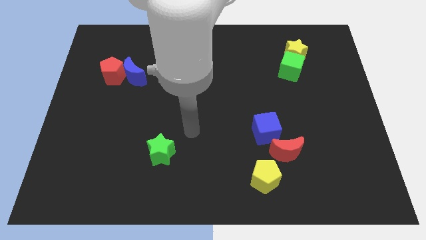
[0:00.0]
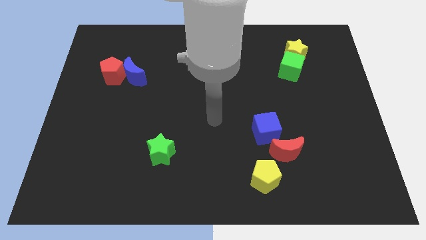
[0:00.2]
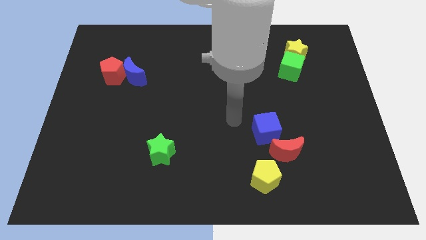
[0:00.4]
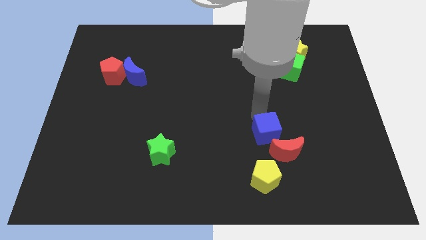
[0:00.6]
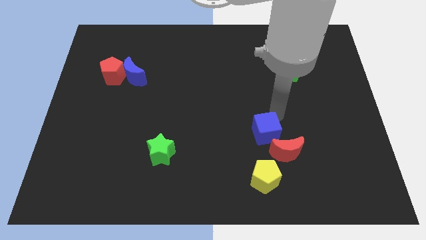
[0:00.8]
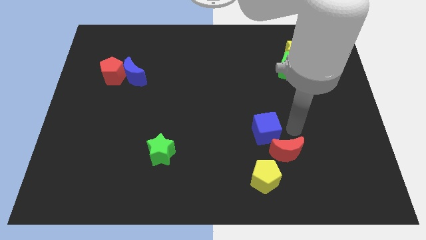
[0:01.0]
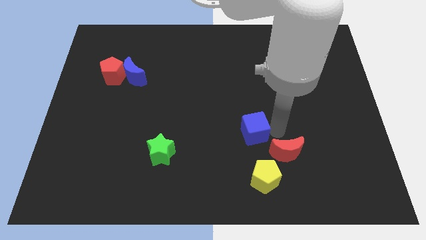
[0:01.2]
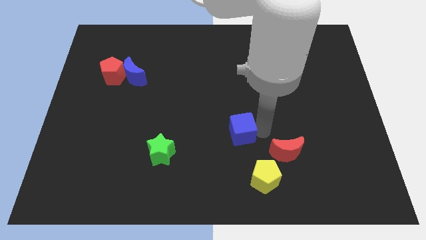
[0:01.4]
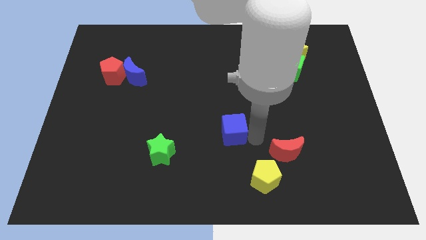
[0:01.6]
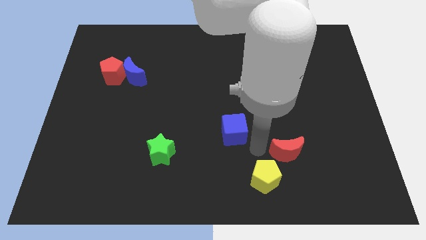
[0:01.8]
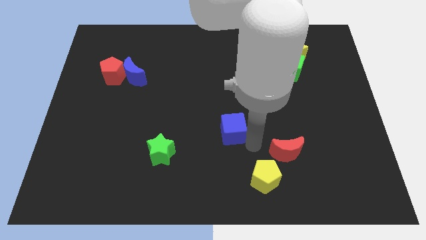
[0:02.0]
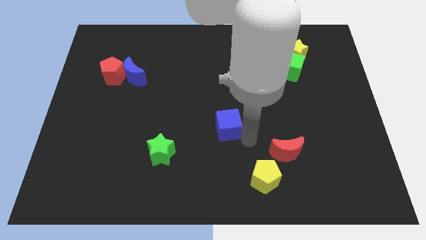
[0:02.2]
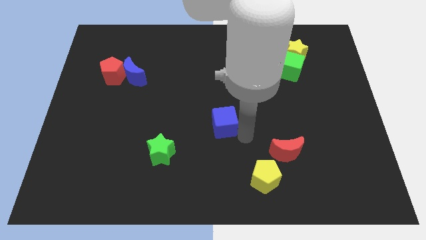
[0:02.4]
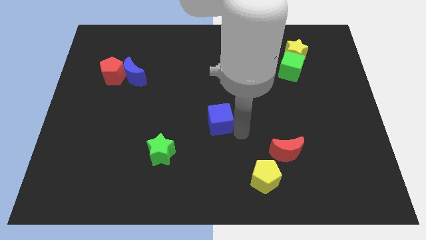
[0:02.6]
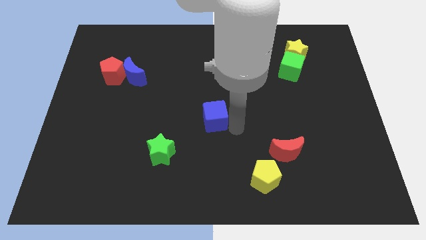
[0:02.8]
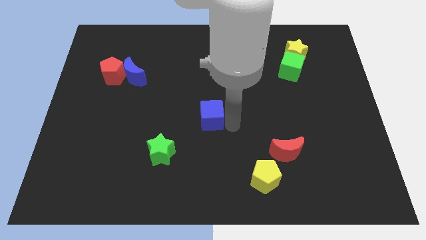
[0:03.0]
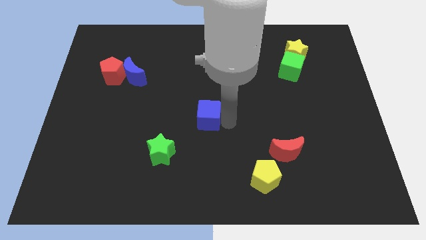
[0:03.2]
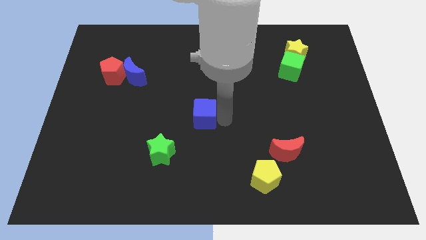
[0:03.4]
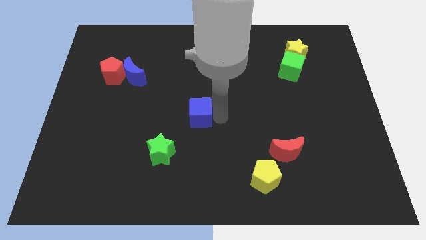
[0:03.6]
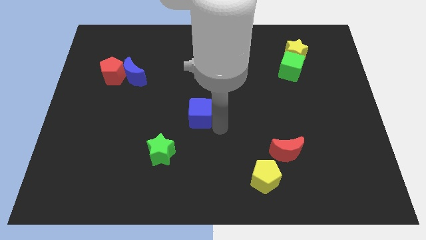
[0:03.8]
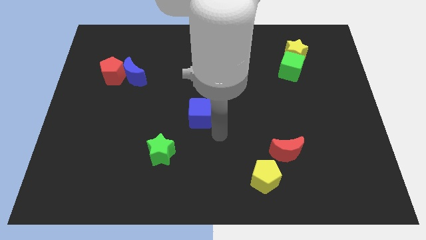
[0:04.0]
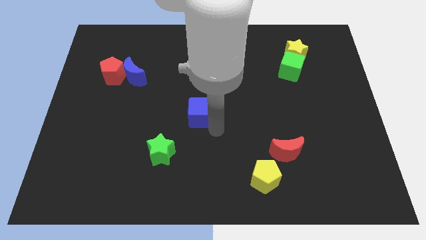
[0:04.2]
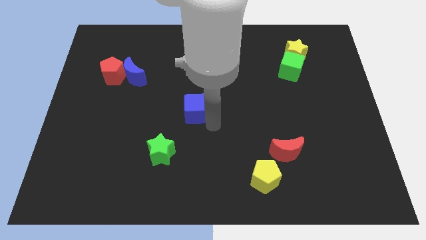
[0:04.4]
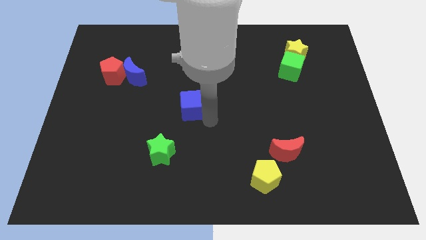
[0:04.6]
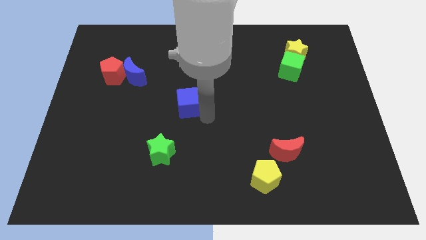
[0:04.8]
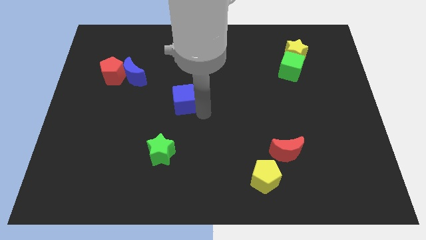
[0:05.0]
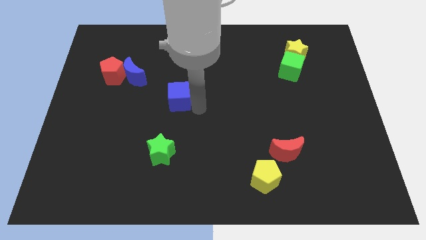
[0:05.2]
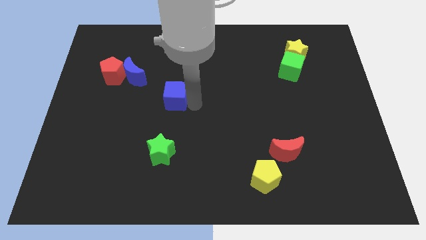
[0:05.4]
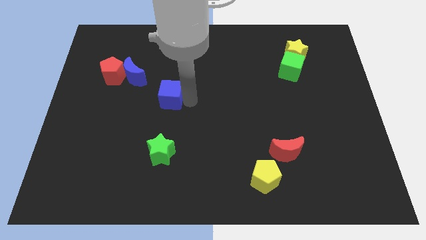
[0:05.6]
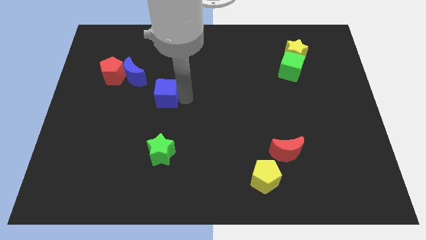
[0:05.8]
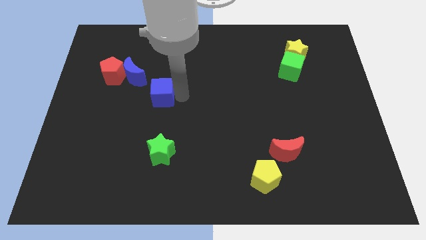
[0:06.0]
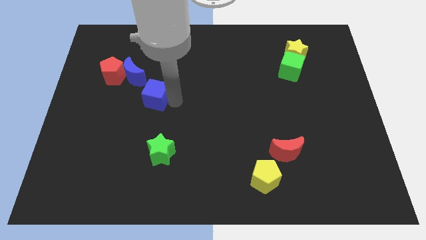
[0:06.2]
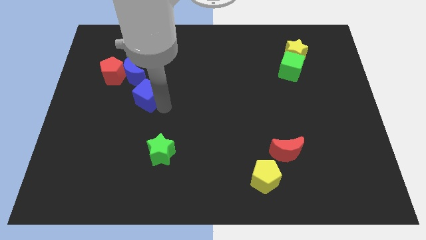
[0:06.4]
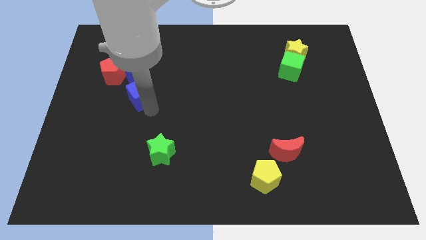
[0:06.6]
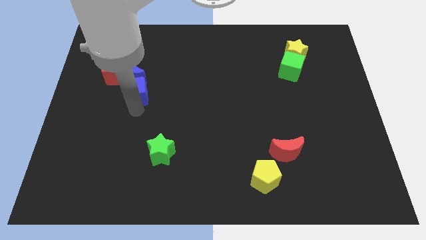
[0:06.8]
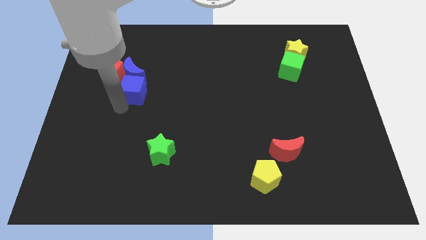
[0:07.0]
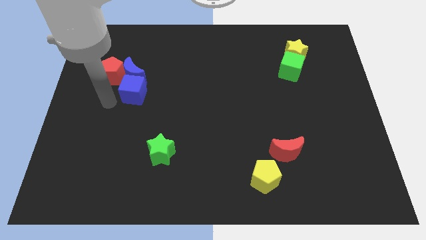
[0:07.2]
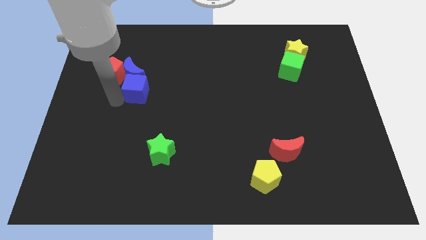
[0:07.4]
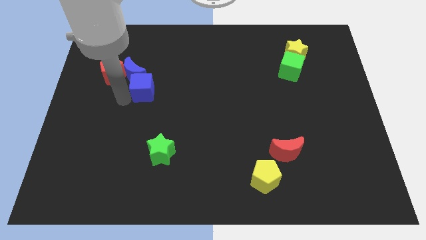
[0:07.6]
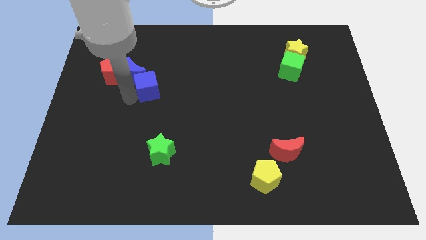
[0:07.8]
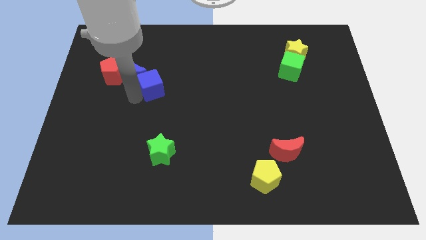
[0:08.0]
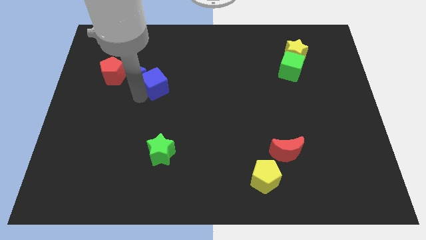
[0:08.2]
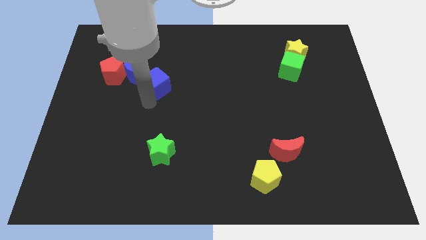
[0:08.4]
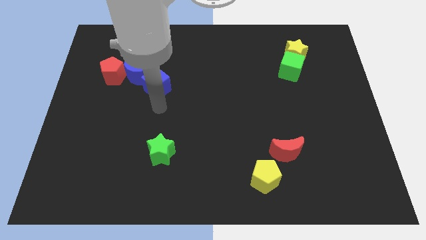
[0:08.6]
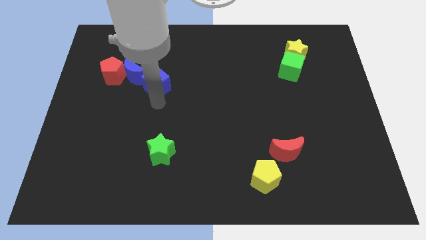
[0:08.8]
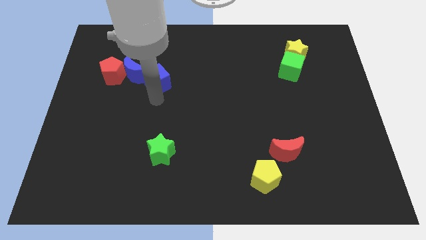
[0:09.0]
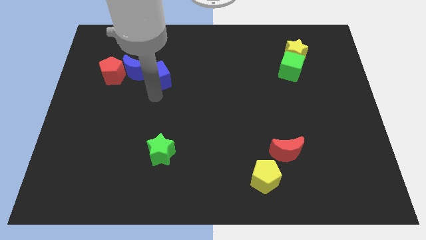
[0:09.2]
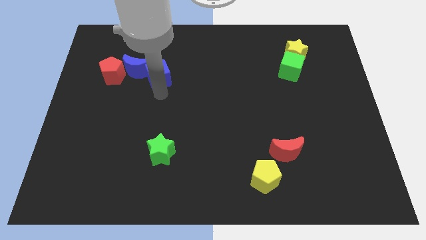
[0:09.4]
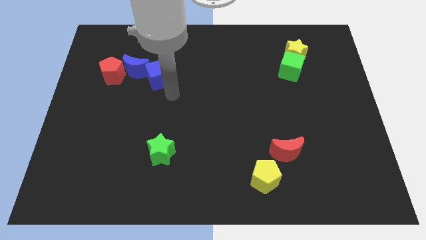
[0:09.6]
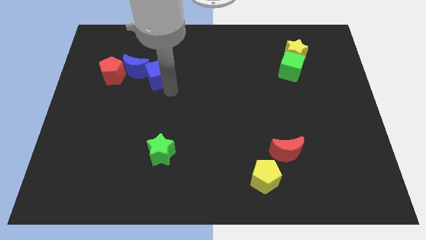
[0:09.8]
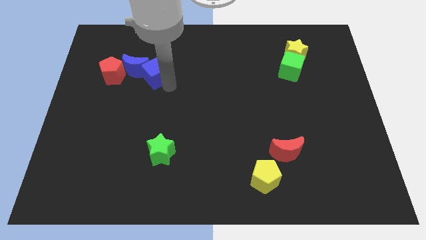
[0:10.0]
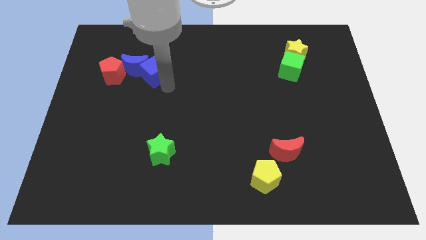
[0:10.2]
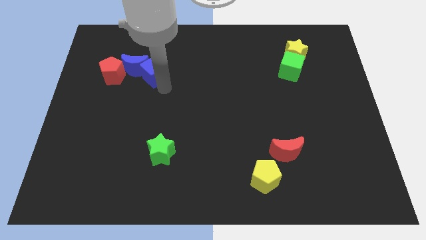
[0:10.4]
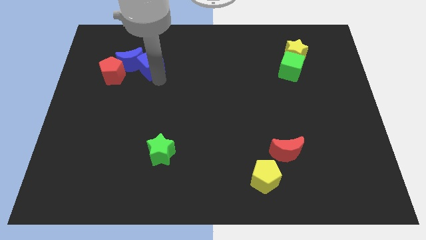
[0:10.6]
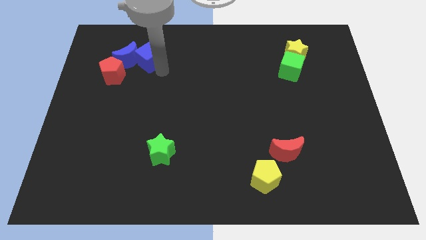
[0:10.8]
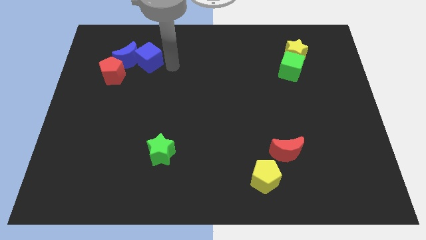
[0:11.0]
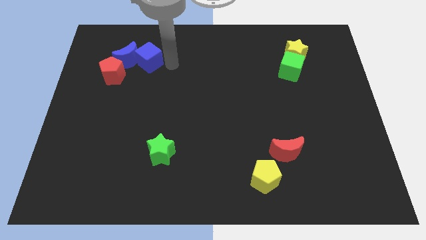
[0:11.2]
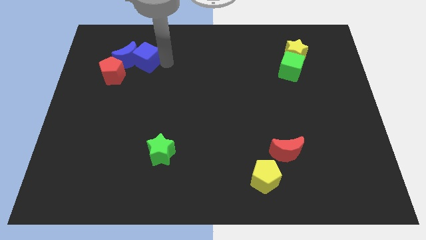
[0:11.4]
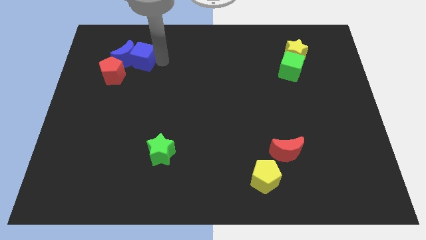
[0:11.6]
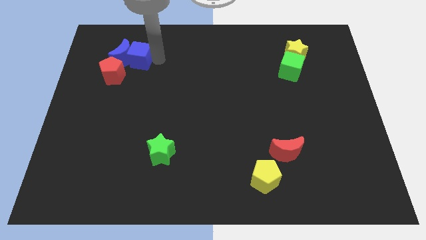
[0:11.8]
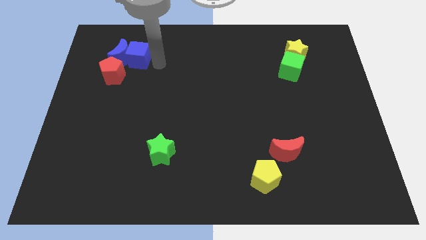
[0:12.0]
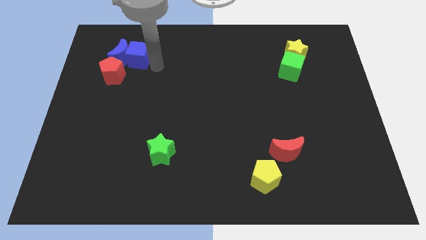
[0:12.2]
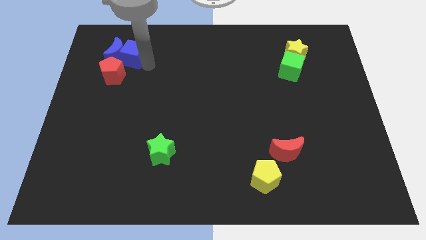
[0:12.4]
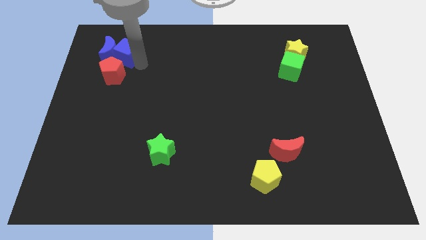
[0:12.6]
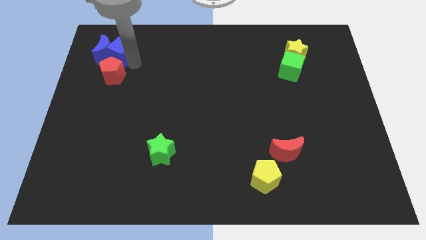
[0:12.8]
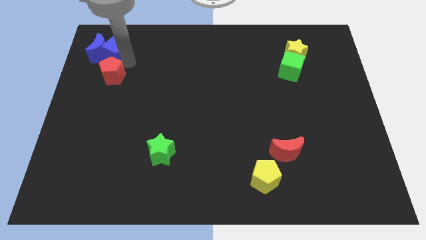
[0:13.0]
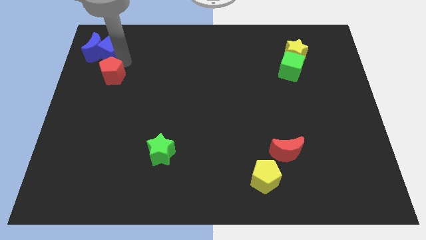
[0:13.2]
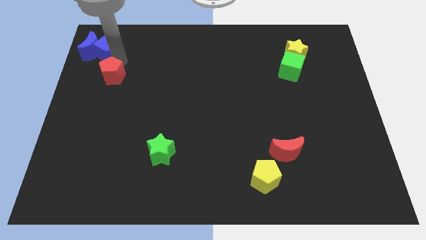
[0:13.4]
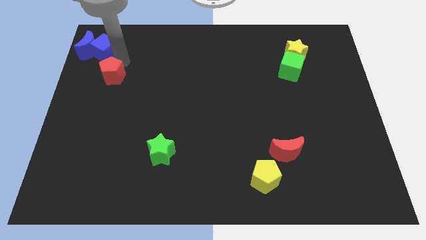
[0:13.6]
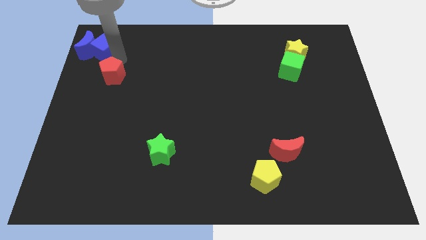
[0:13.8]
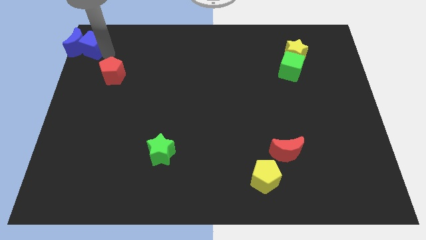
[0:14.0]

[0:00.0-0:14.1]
move the blue cube to the top left of the board
